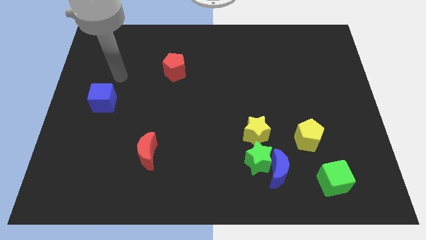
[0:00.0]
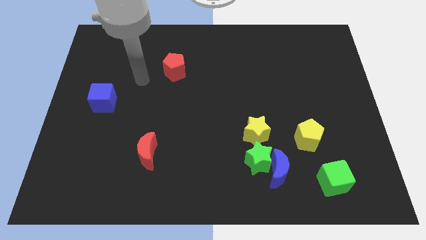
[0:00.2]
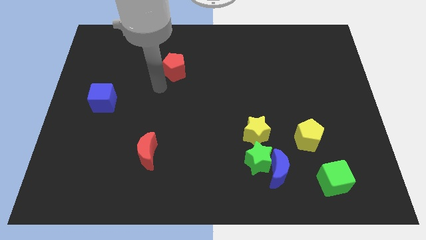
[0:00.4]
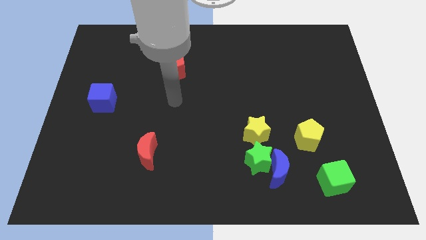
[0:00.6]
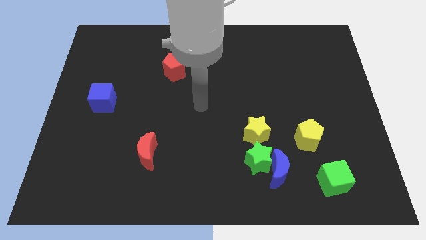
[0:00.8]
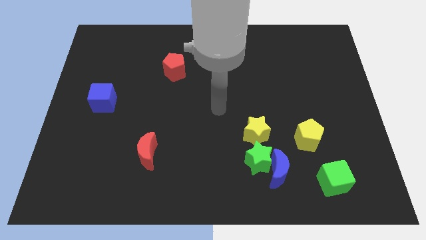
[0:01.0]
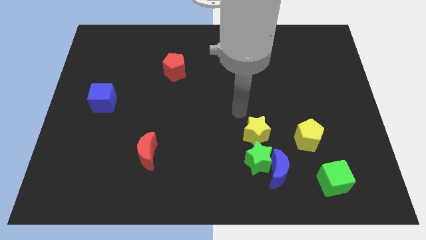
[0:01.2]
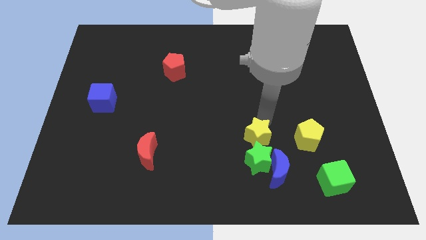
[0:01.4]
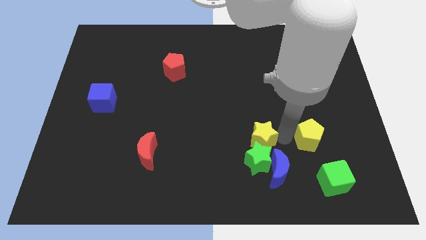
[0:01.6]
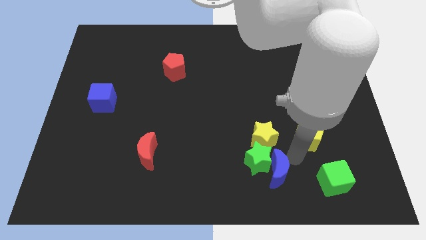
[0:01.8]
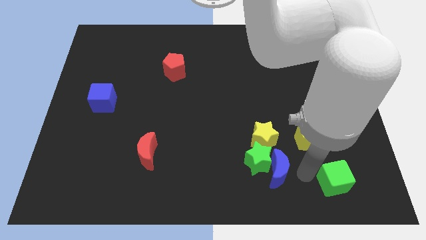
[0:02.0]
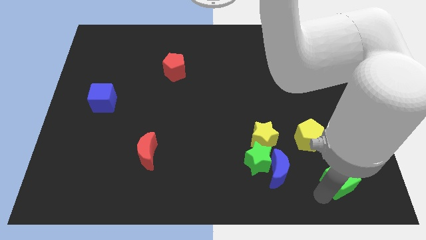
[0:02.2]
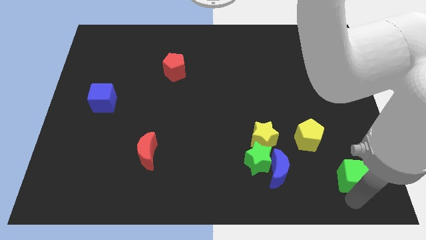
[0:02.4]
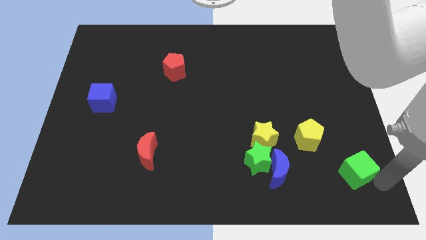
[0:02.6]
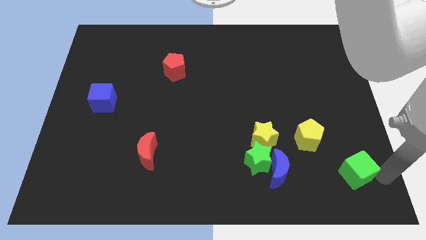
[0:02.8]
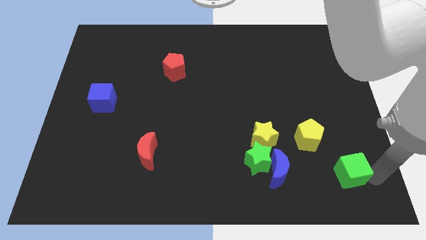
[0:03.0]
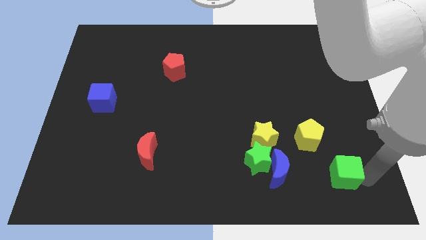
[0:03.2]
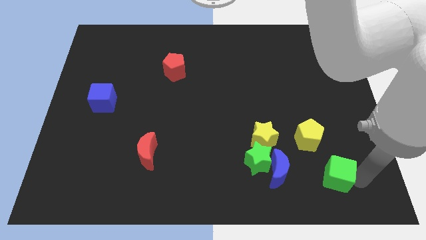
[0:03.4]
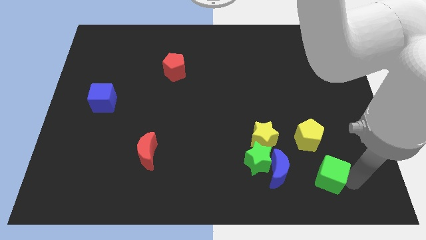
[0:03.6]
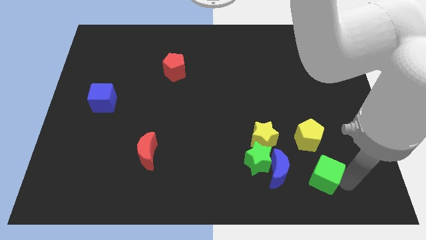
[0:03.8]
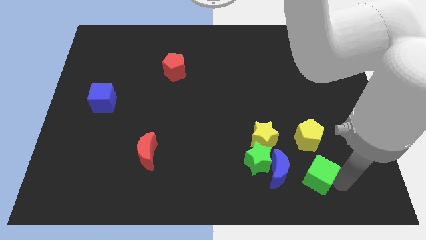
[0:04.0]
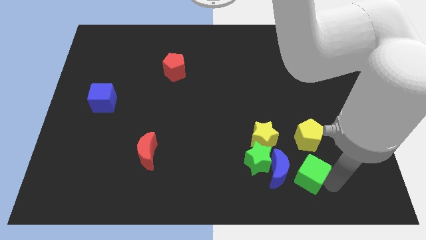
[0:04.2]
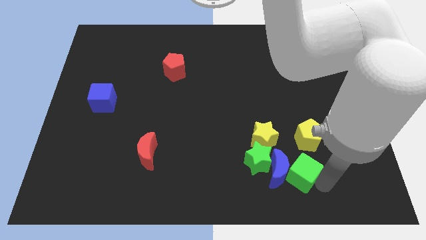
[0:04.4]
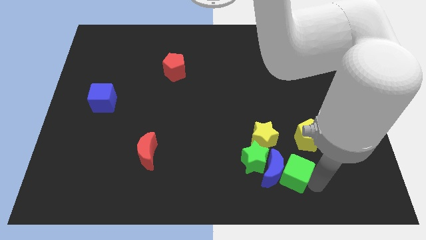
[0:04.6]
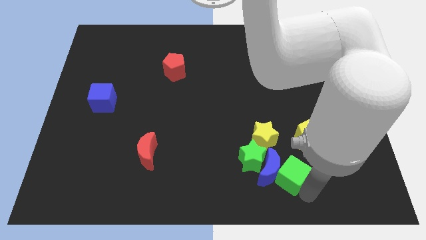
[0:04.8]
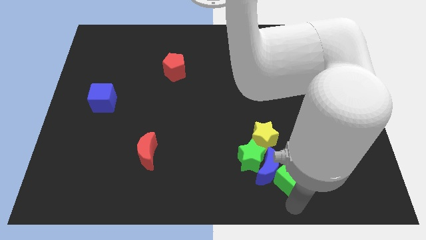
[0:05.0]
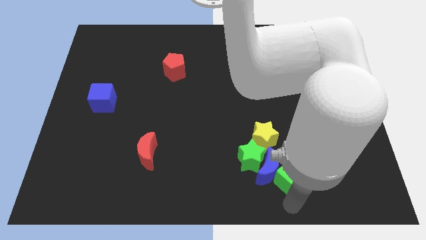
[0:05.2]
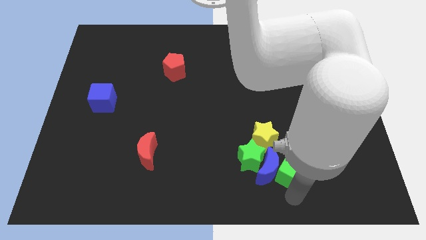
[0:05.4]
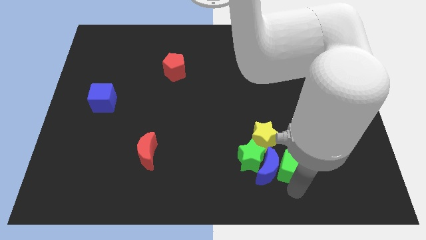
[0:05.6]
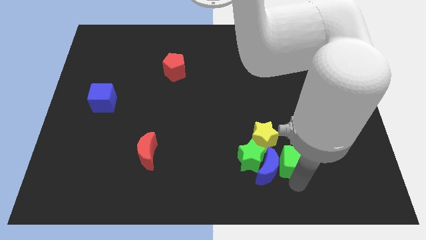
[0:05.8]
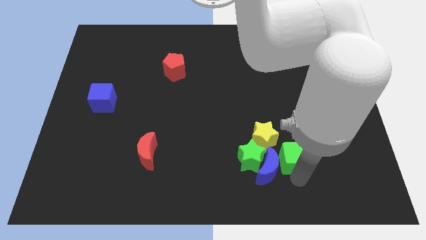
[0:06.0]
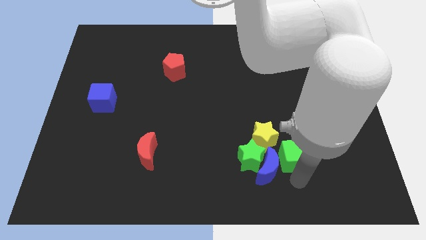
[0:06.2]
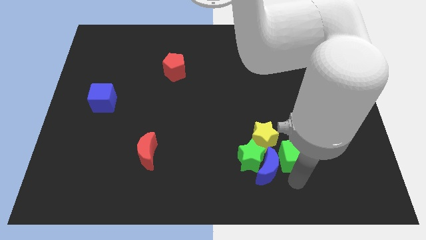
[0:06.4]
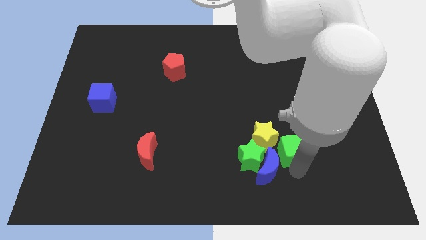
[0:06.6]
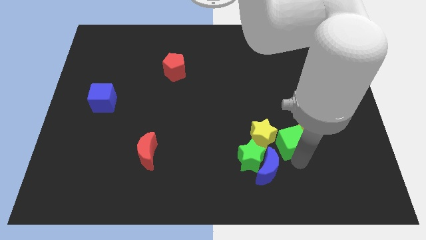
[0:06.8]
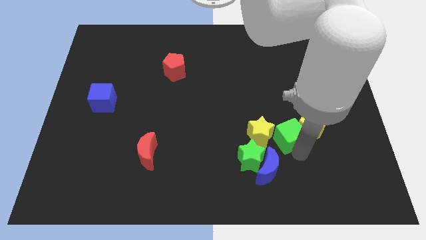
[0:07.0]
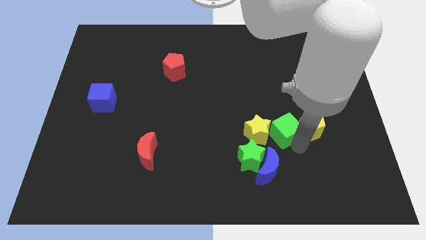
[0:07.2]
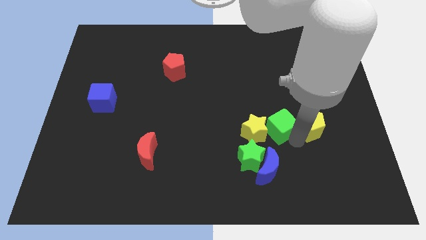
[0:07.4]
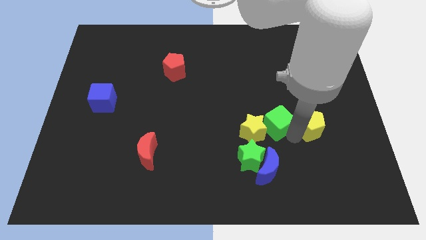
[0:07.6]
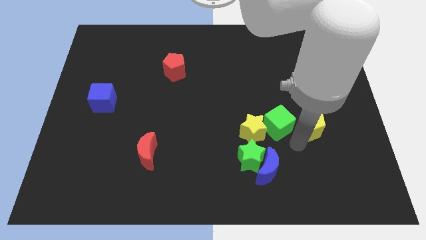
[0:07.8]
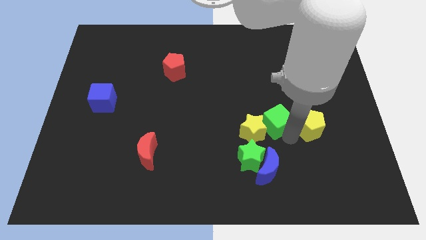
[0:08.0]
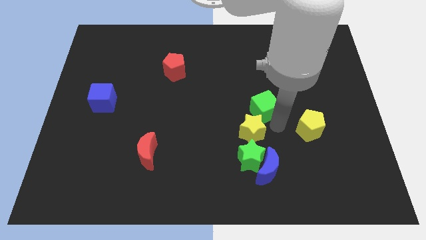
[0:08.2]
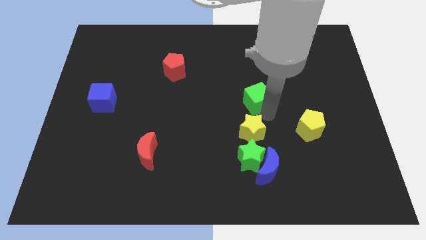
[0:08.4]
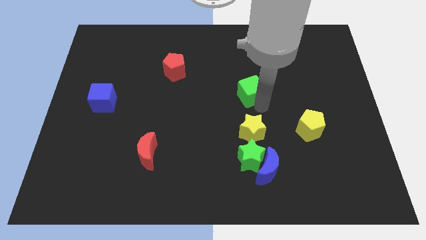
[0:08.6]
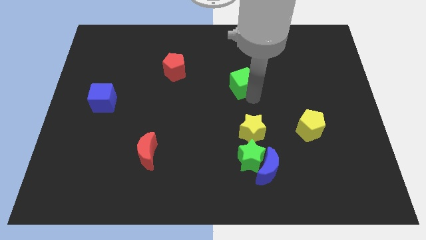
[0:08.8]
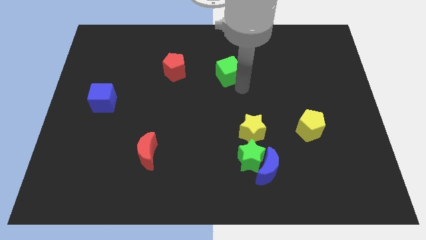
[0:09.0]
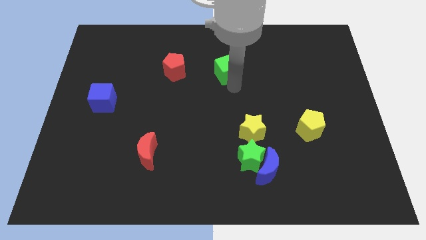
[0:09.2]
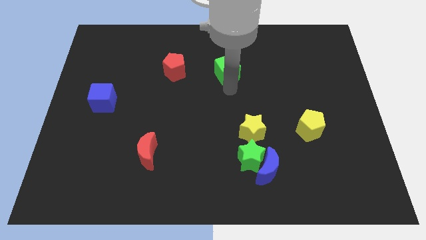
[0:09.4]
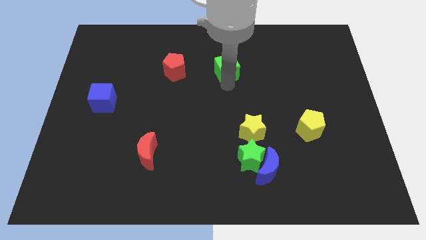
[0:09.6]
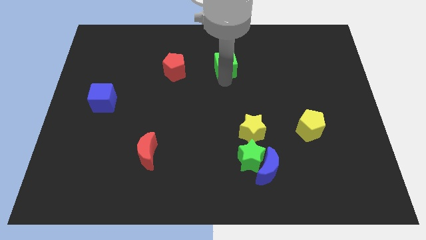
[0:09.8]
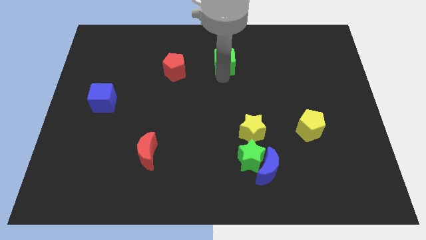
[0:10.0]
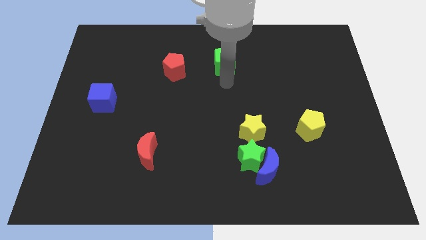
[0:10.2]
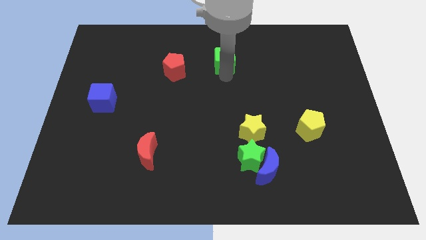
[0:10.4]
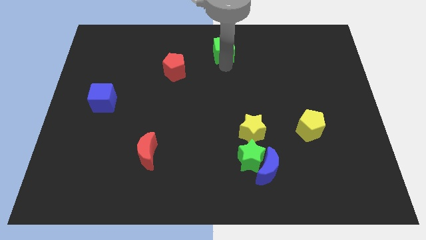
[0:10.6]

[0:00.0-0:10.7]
move the green cube to the top

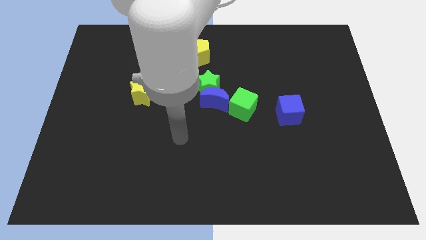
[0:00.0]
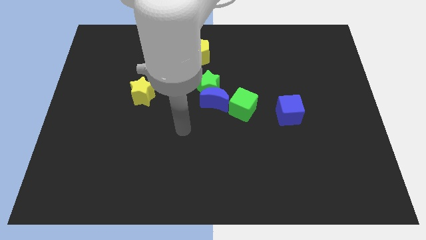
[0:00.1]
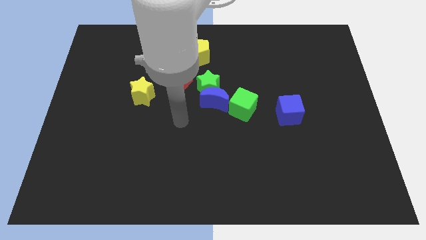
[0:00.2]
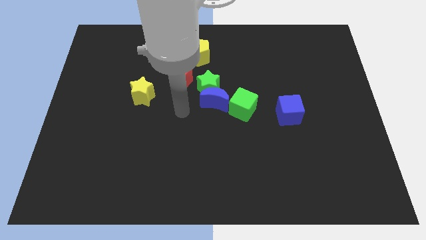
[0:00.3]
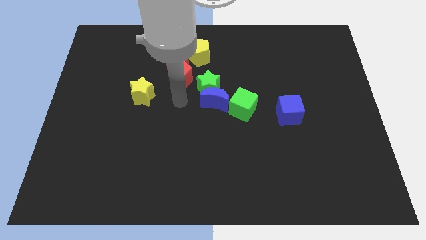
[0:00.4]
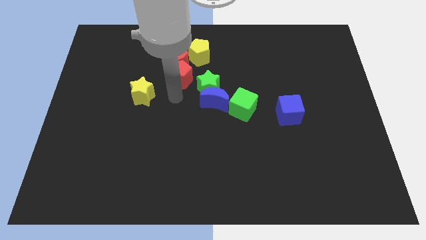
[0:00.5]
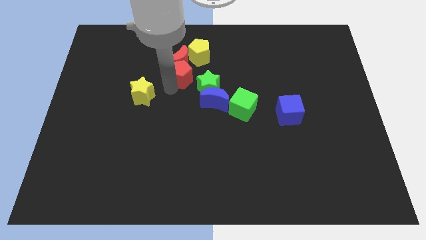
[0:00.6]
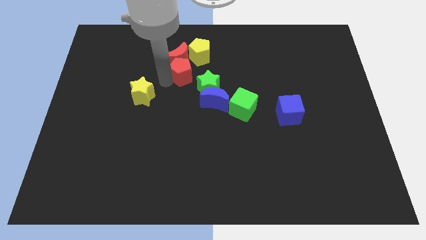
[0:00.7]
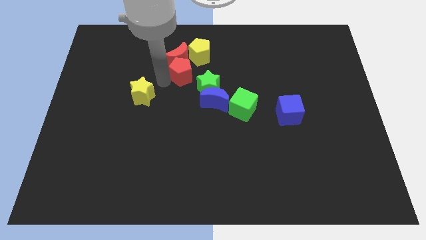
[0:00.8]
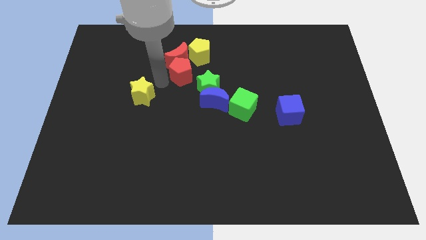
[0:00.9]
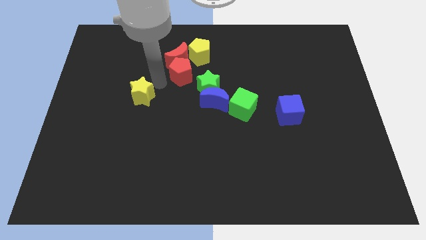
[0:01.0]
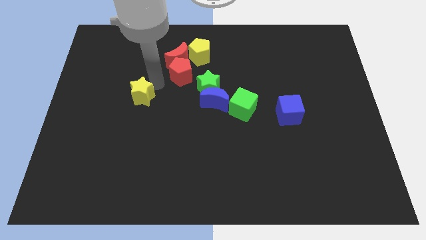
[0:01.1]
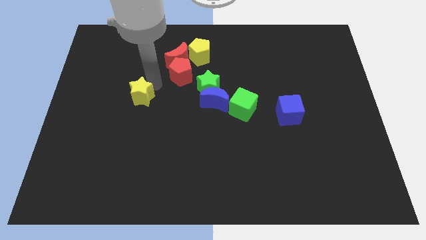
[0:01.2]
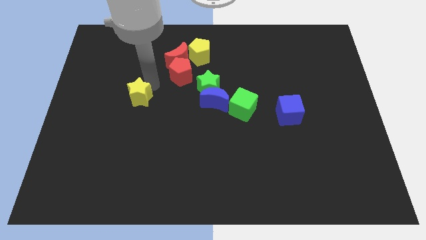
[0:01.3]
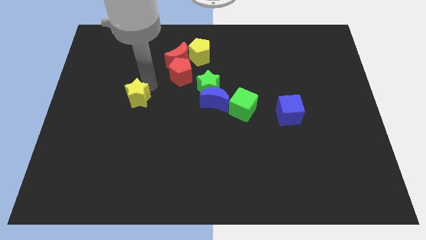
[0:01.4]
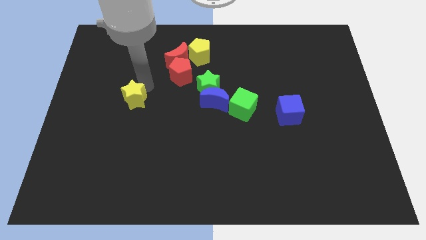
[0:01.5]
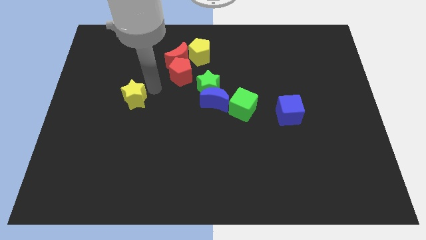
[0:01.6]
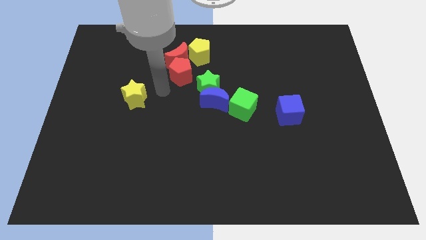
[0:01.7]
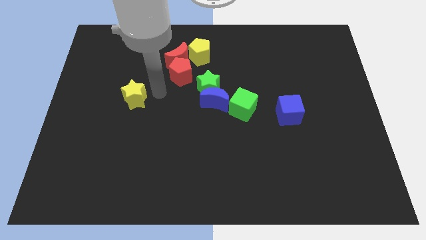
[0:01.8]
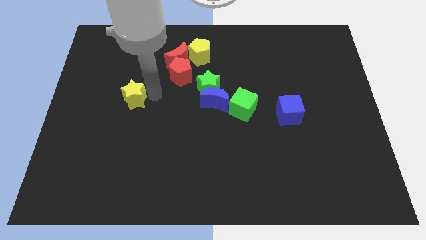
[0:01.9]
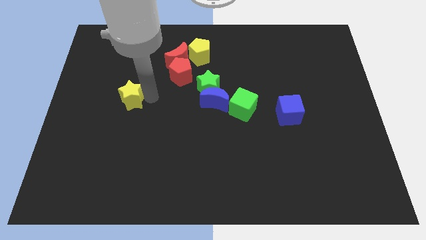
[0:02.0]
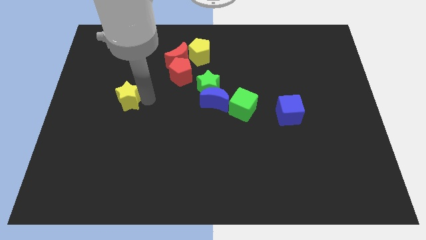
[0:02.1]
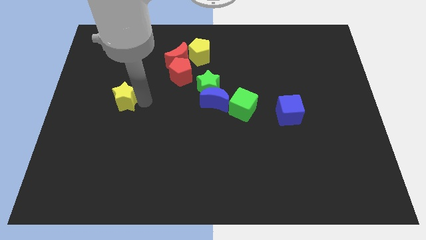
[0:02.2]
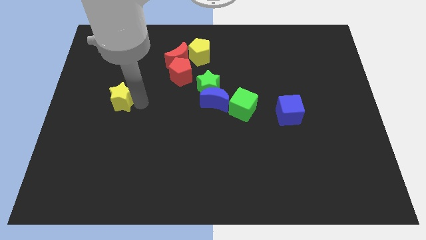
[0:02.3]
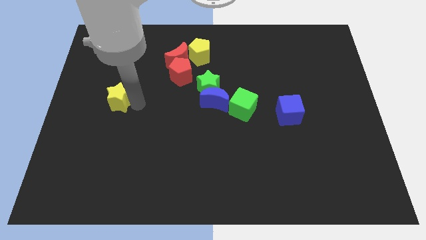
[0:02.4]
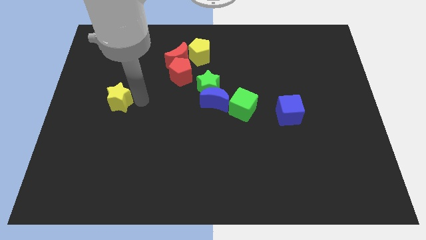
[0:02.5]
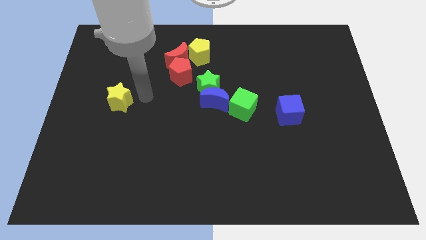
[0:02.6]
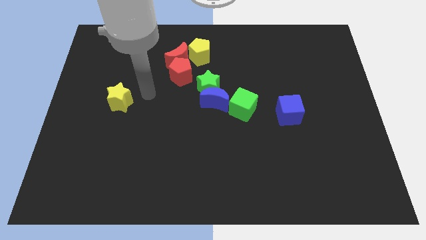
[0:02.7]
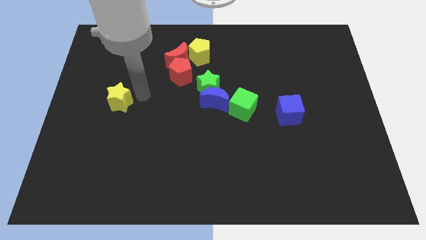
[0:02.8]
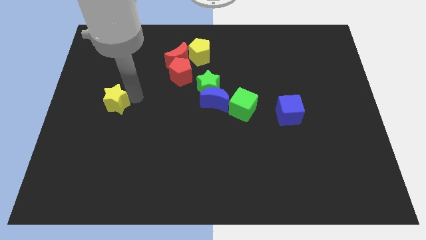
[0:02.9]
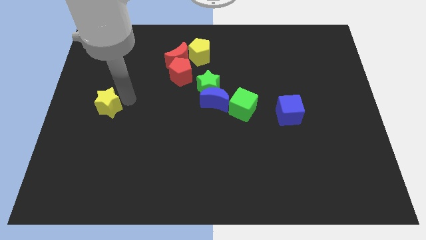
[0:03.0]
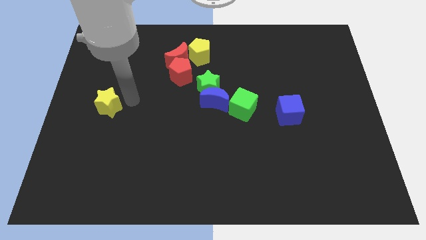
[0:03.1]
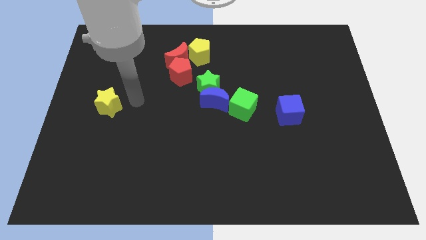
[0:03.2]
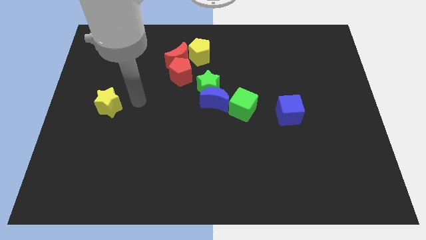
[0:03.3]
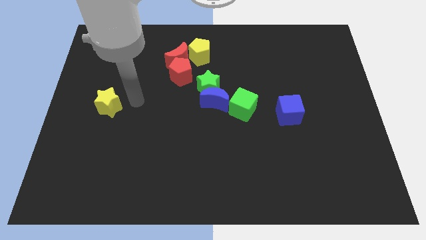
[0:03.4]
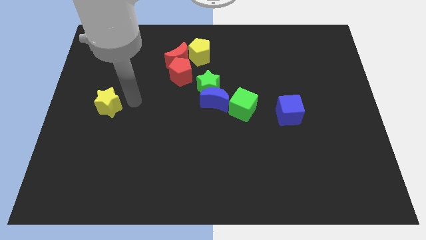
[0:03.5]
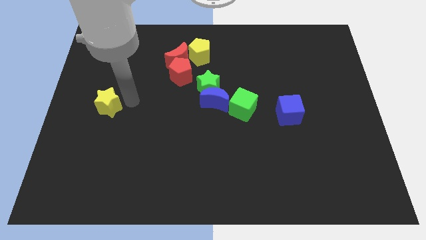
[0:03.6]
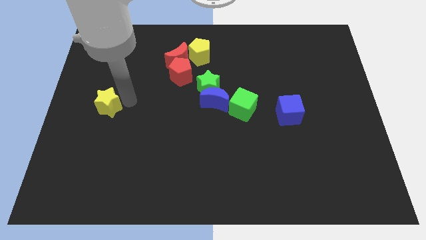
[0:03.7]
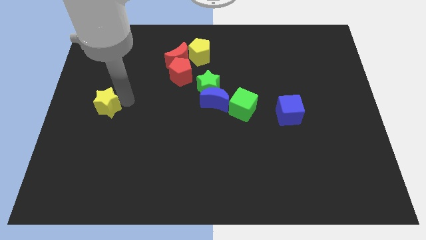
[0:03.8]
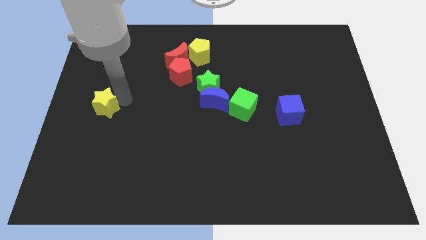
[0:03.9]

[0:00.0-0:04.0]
push the yellow star to the center left
